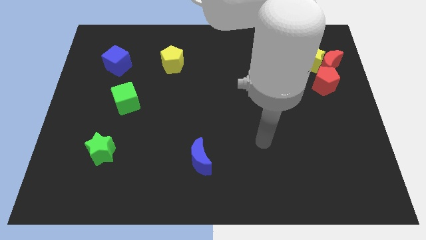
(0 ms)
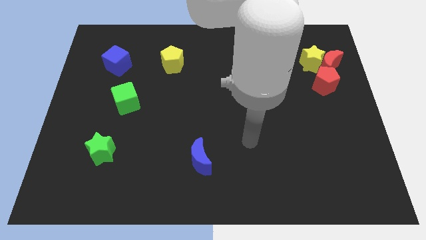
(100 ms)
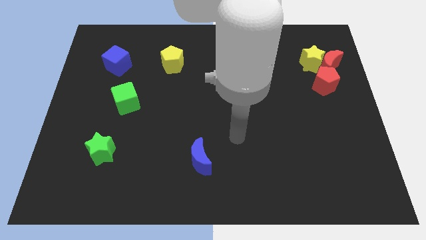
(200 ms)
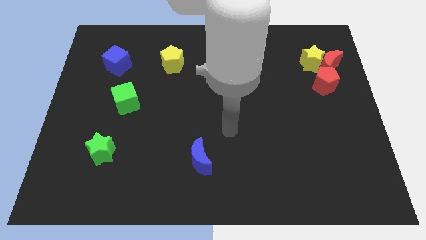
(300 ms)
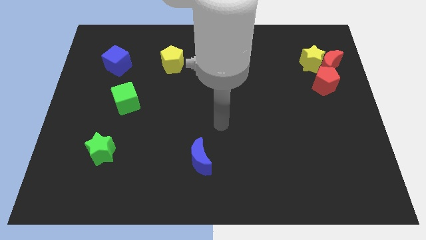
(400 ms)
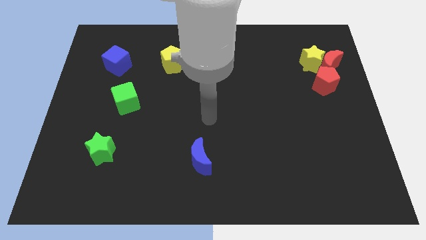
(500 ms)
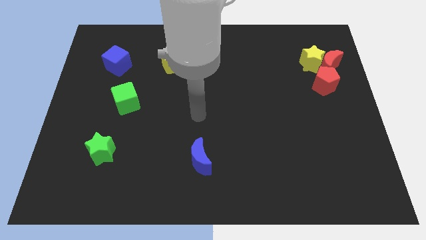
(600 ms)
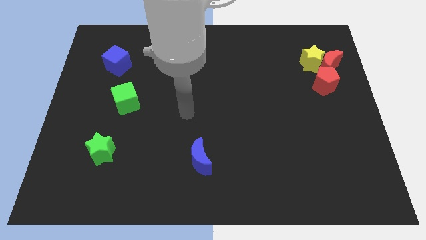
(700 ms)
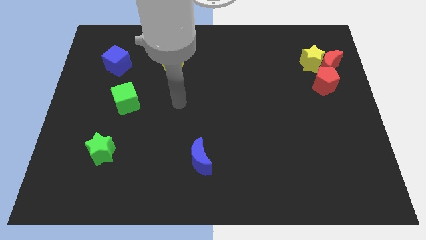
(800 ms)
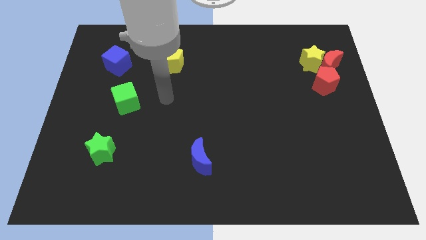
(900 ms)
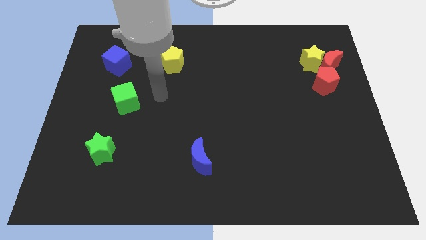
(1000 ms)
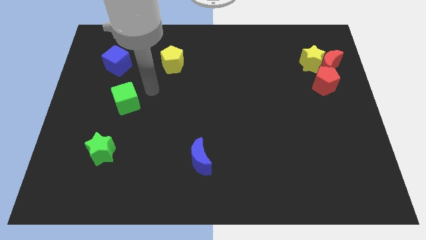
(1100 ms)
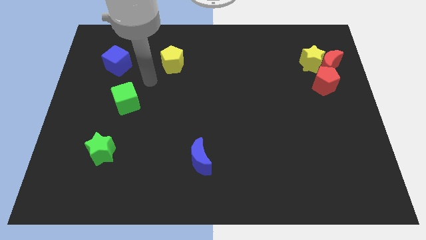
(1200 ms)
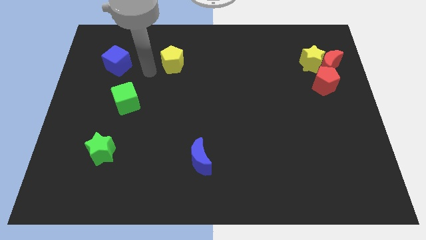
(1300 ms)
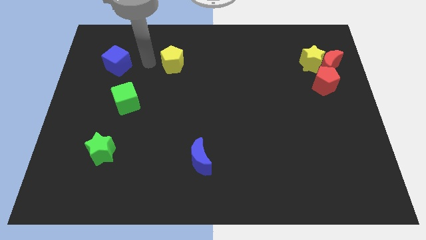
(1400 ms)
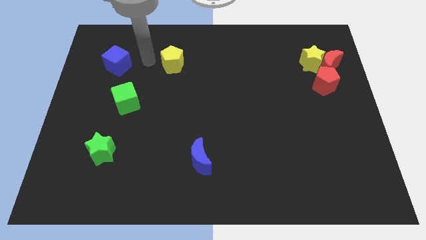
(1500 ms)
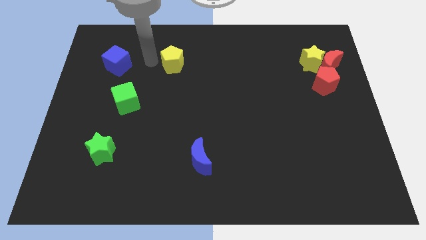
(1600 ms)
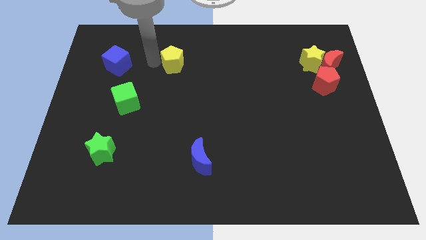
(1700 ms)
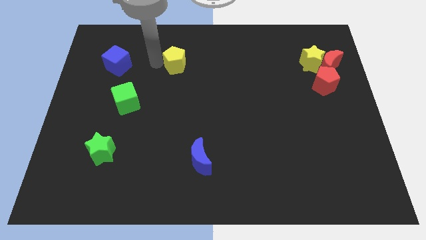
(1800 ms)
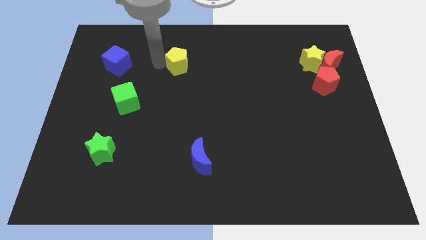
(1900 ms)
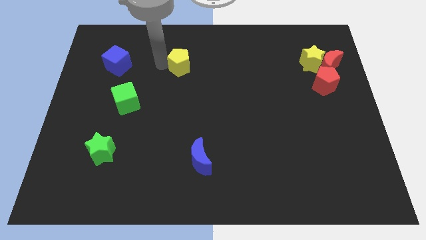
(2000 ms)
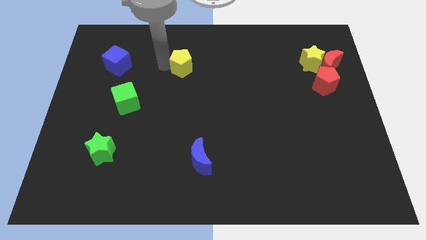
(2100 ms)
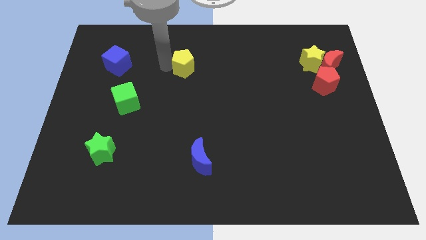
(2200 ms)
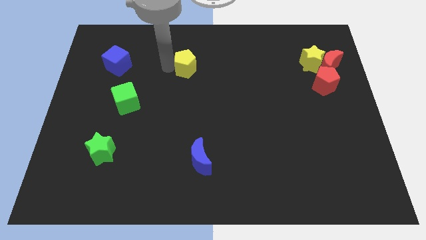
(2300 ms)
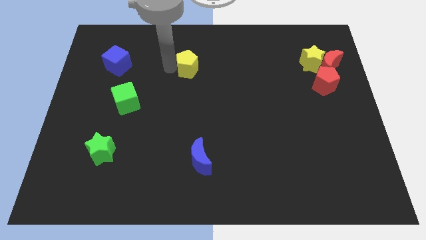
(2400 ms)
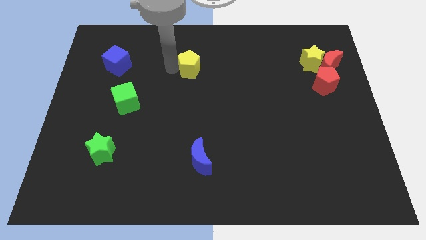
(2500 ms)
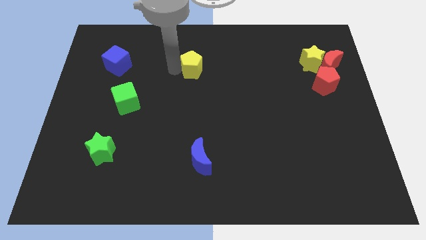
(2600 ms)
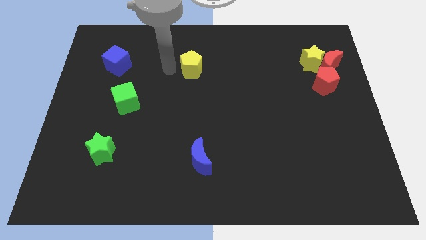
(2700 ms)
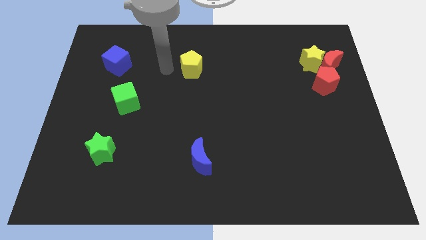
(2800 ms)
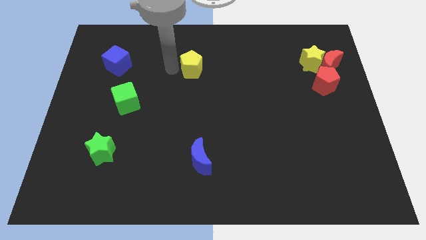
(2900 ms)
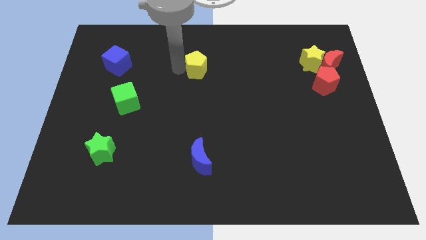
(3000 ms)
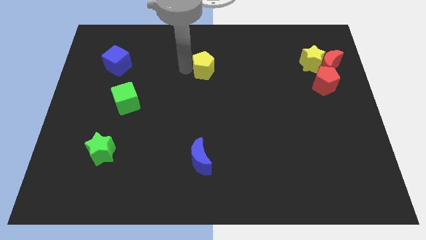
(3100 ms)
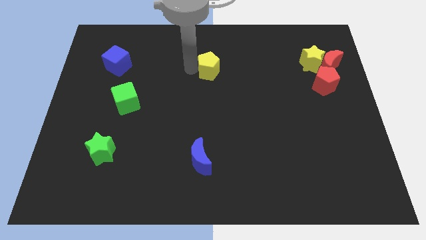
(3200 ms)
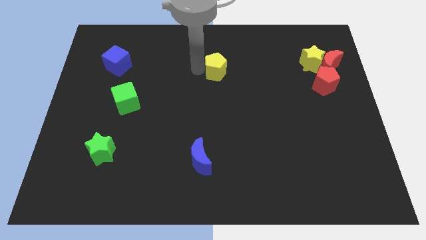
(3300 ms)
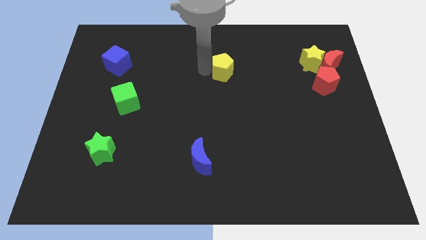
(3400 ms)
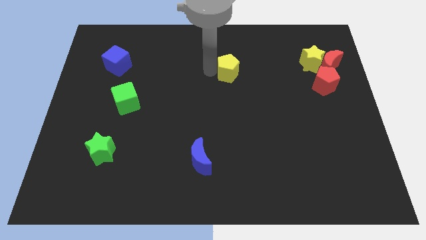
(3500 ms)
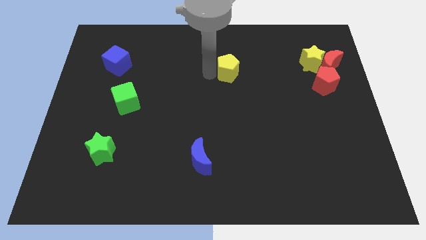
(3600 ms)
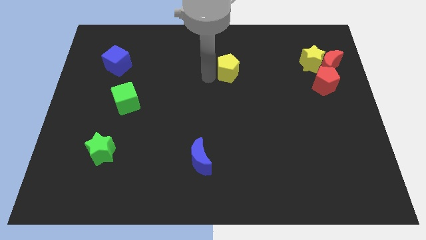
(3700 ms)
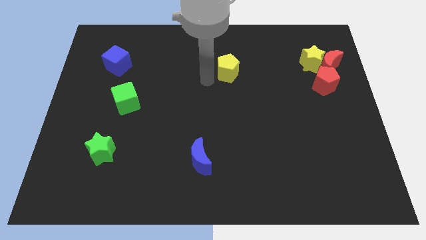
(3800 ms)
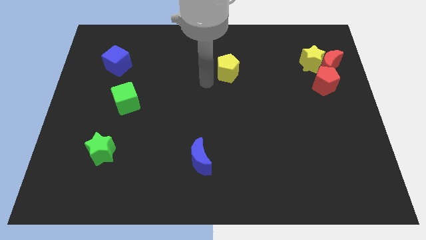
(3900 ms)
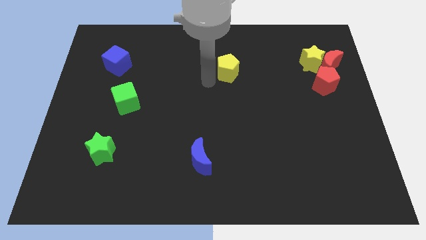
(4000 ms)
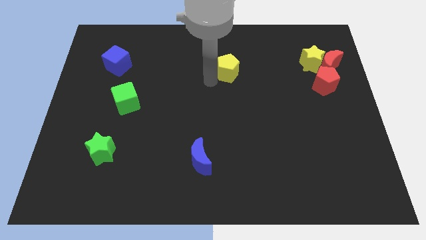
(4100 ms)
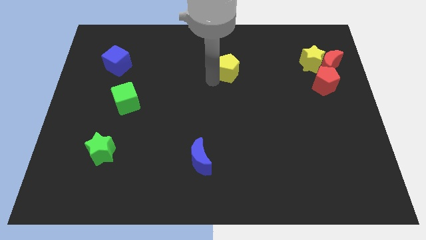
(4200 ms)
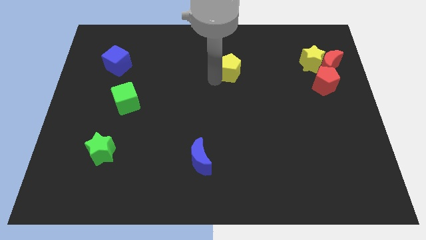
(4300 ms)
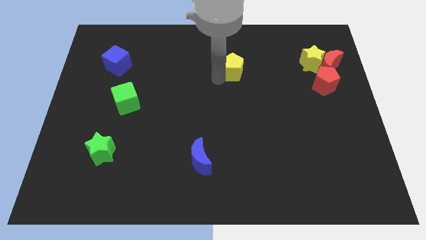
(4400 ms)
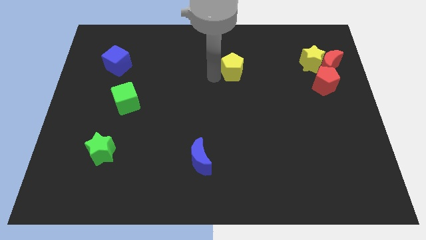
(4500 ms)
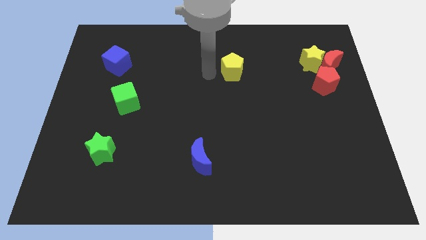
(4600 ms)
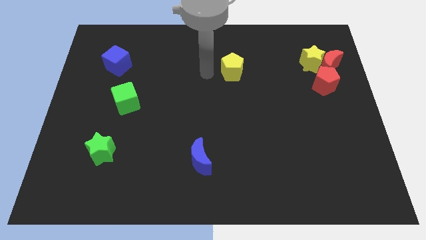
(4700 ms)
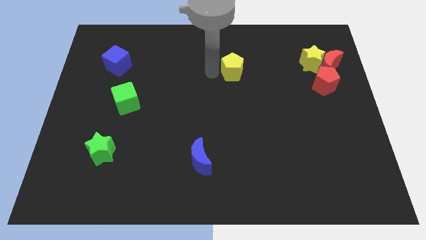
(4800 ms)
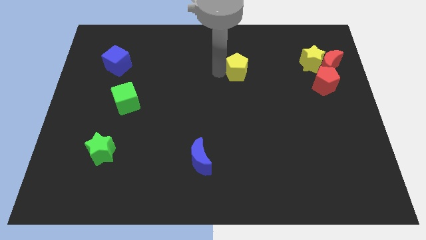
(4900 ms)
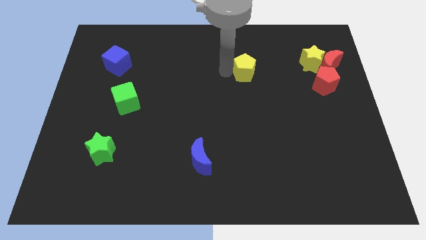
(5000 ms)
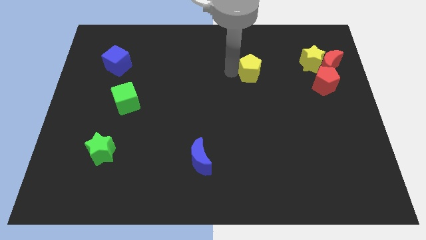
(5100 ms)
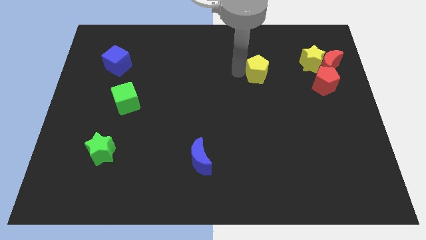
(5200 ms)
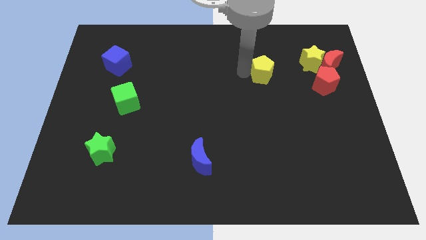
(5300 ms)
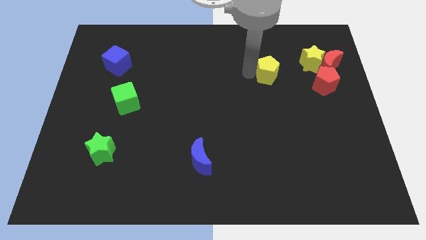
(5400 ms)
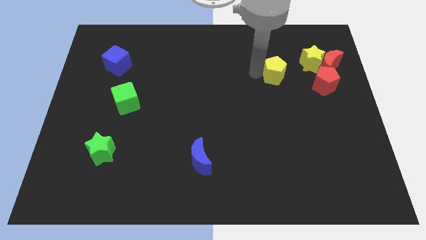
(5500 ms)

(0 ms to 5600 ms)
slide the yellow pentagon diagonally down and to the left of the yellow star

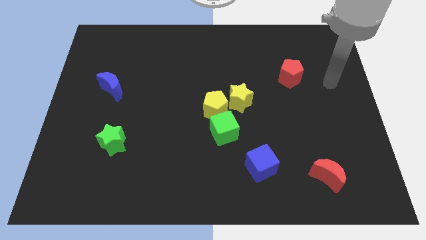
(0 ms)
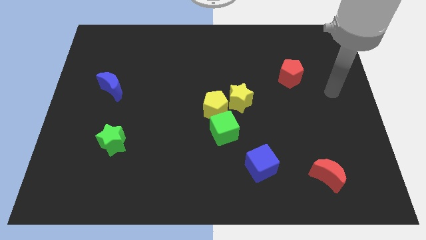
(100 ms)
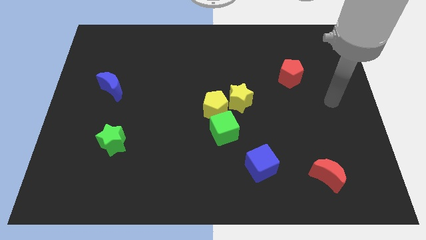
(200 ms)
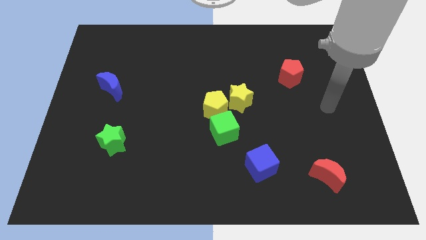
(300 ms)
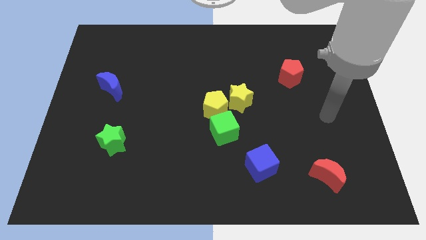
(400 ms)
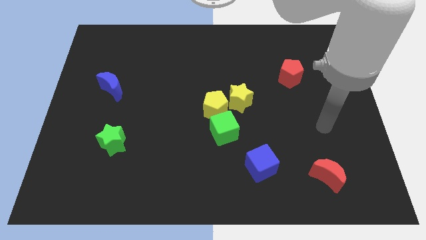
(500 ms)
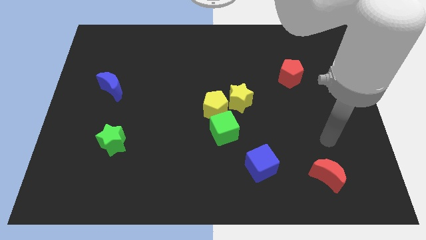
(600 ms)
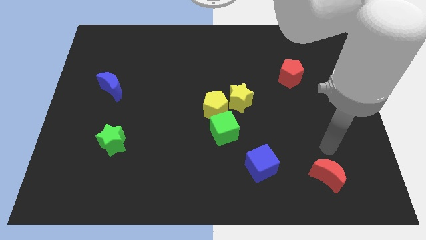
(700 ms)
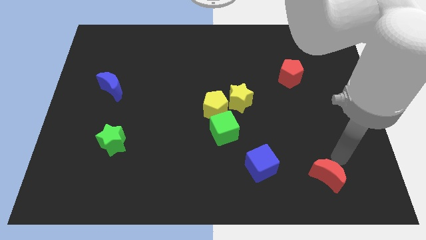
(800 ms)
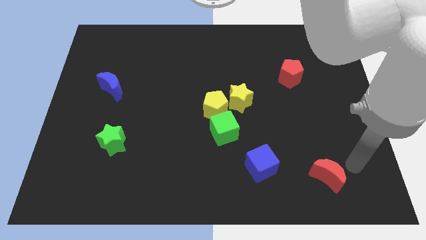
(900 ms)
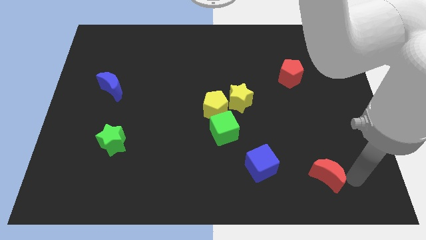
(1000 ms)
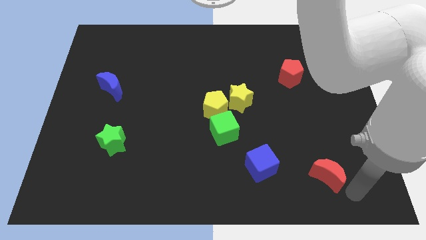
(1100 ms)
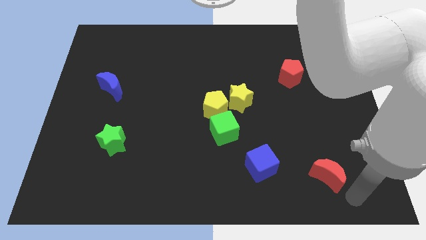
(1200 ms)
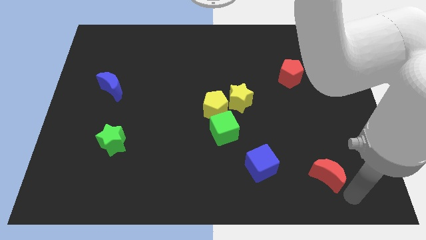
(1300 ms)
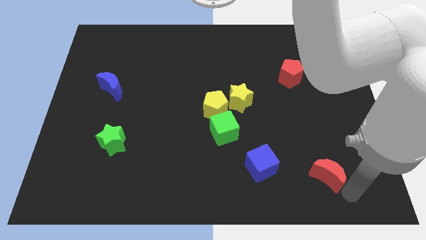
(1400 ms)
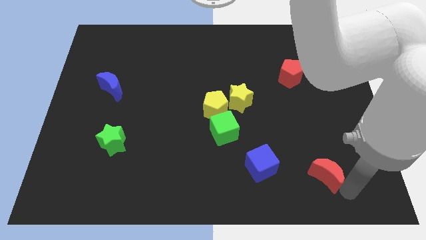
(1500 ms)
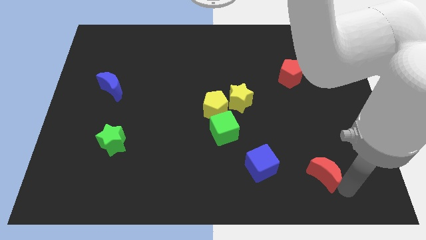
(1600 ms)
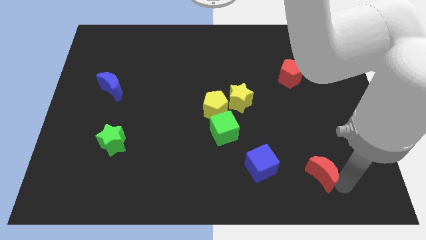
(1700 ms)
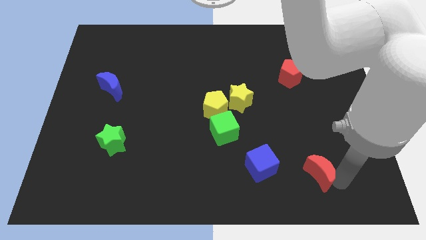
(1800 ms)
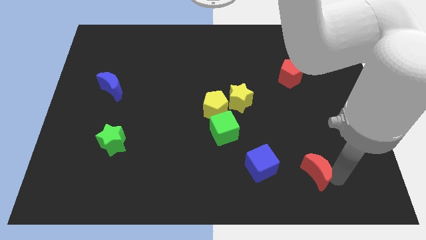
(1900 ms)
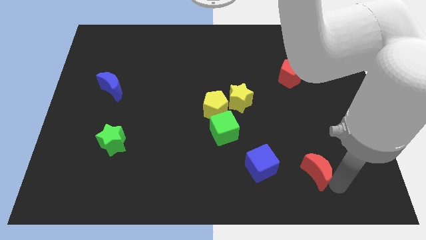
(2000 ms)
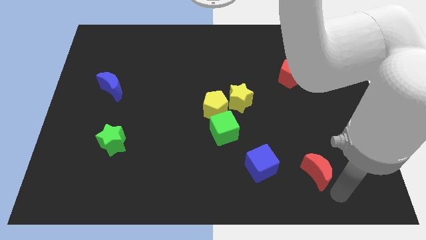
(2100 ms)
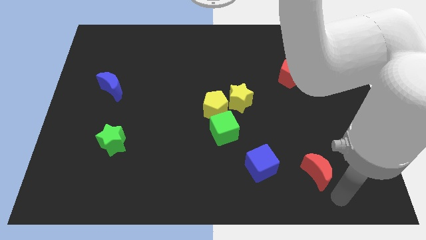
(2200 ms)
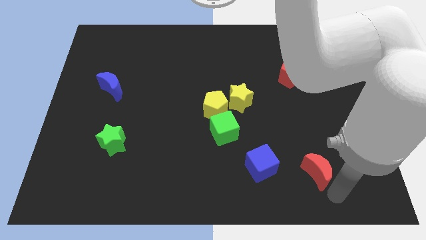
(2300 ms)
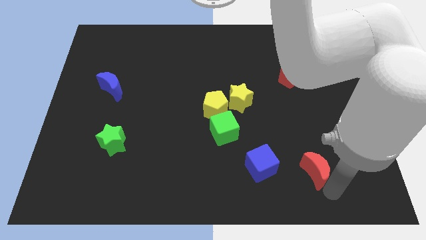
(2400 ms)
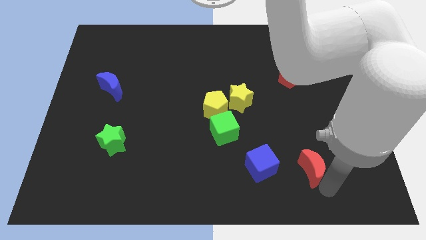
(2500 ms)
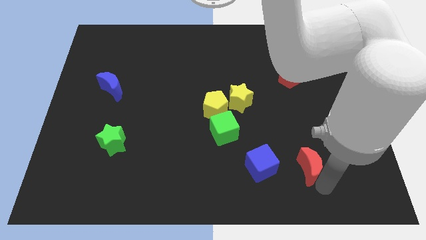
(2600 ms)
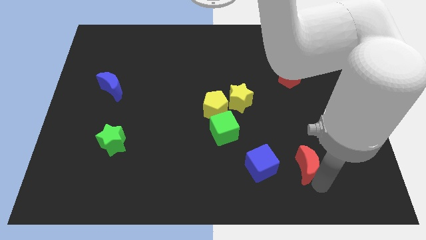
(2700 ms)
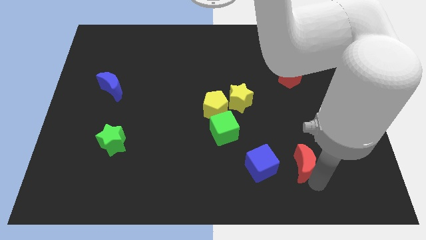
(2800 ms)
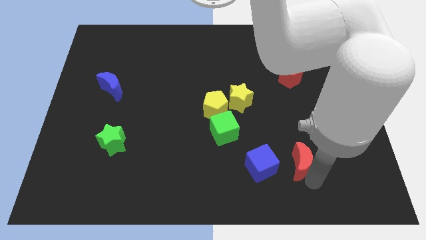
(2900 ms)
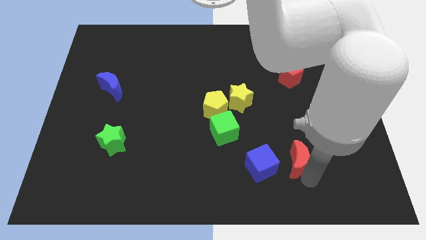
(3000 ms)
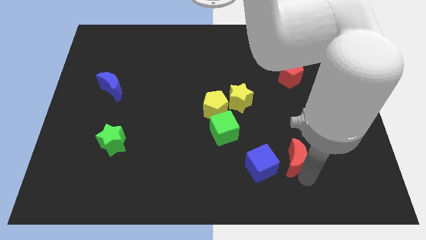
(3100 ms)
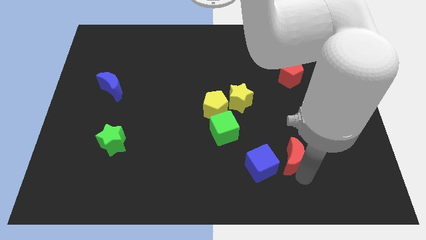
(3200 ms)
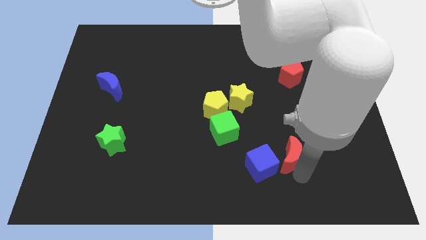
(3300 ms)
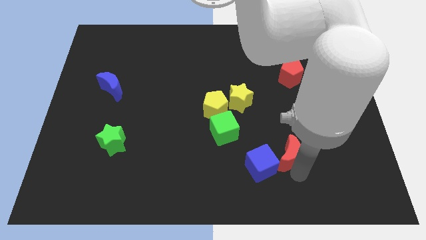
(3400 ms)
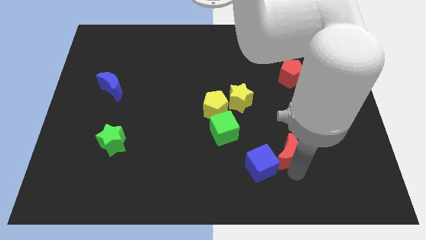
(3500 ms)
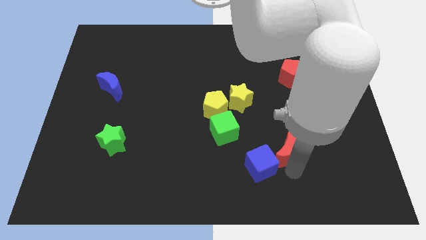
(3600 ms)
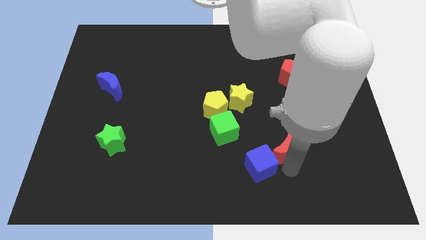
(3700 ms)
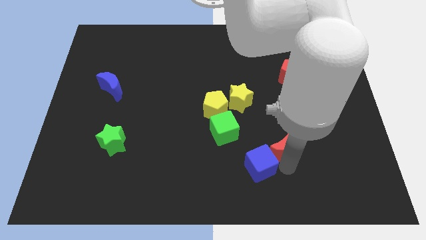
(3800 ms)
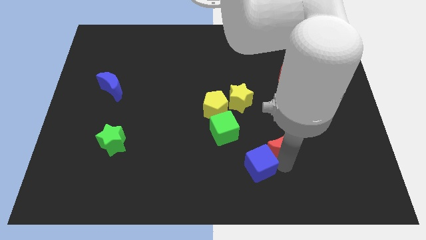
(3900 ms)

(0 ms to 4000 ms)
slide the red moon right of the green cube
